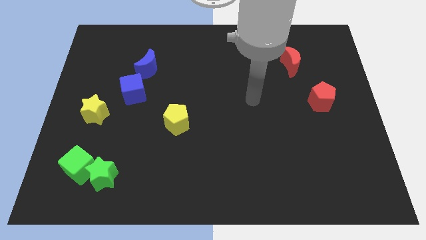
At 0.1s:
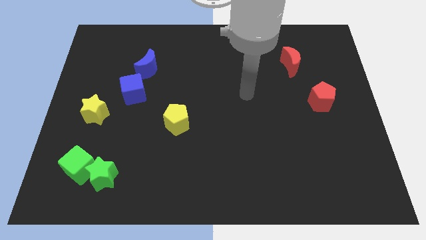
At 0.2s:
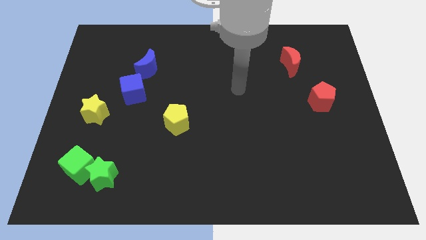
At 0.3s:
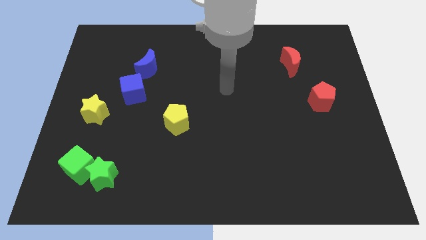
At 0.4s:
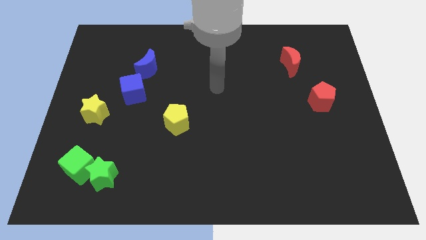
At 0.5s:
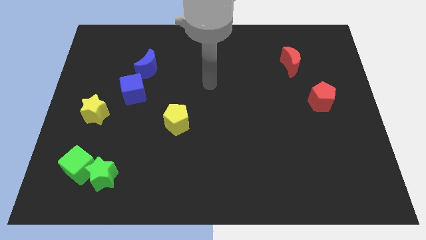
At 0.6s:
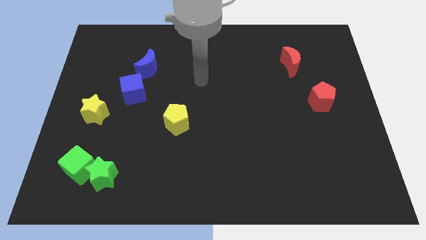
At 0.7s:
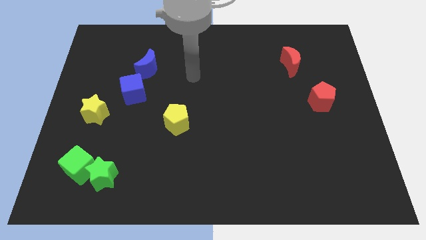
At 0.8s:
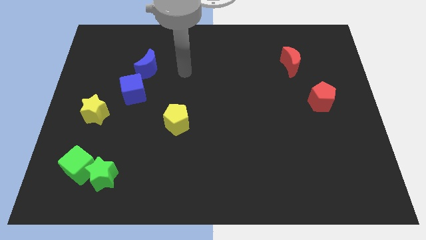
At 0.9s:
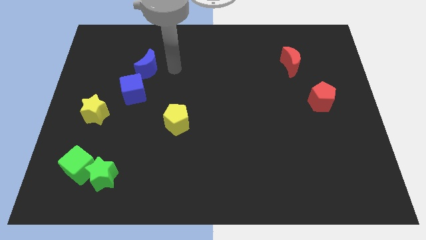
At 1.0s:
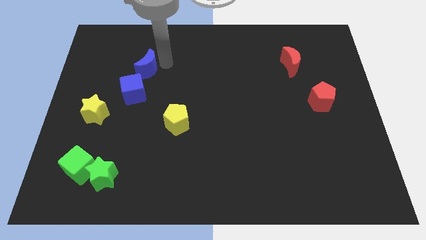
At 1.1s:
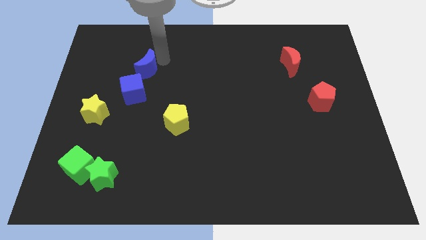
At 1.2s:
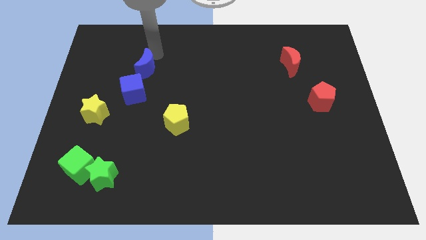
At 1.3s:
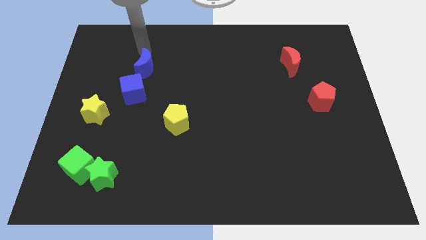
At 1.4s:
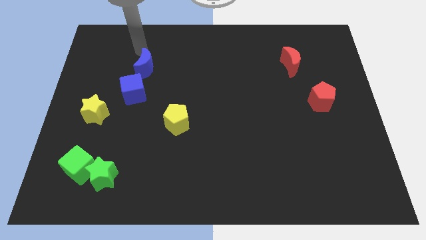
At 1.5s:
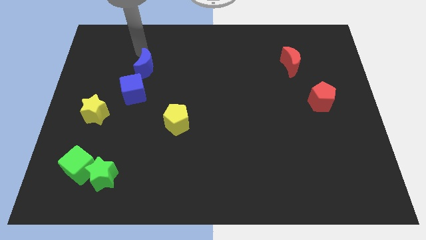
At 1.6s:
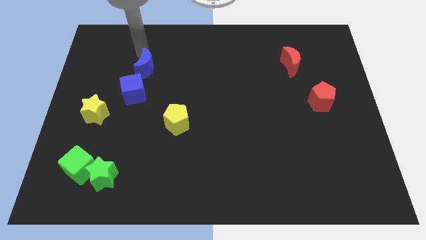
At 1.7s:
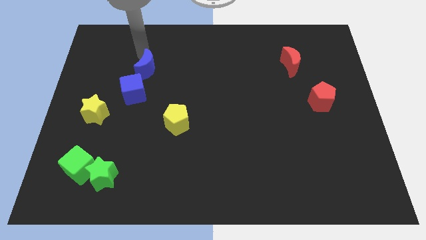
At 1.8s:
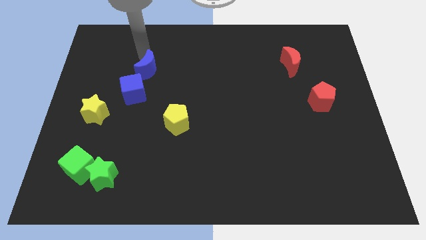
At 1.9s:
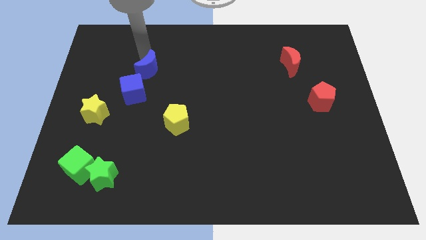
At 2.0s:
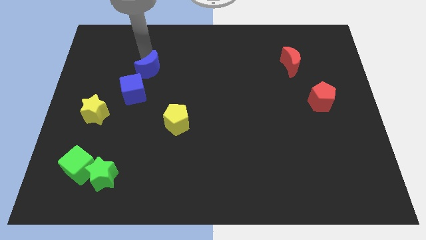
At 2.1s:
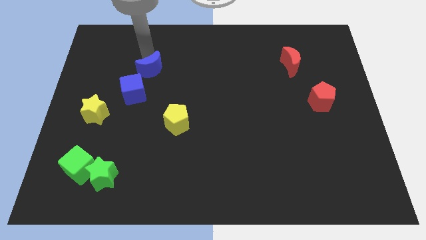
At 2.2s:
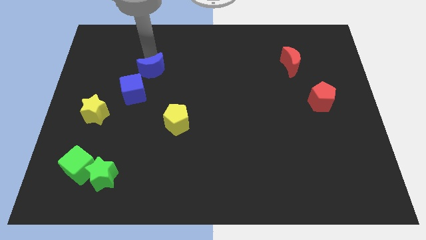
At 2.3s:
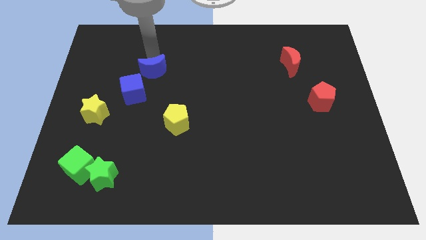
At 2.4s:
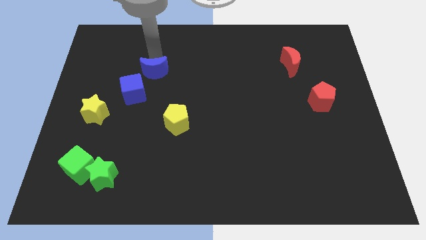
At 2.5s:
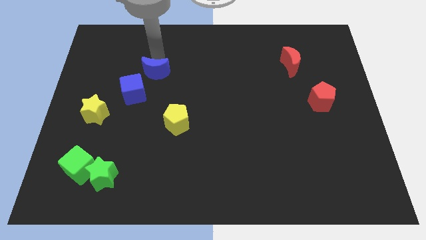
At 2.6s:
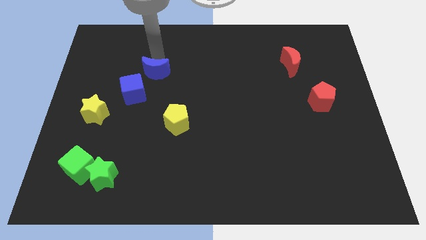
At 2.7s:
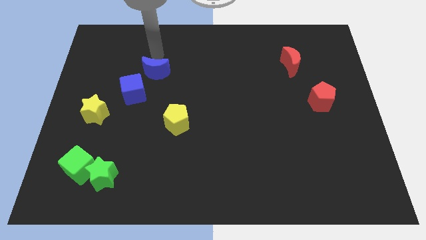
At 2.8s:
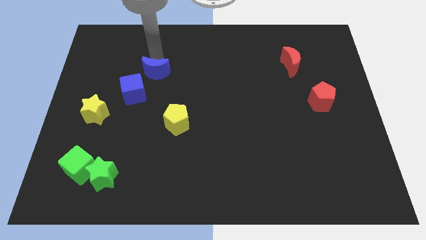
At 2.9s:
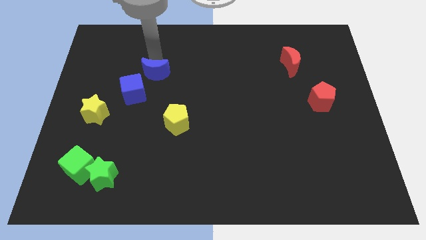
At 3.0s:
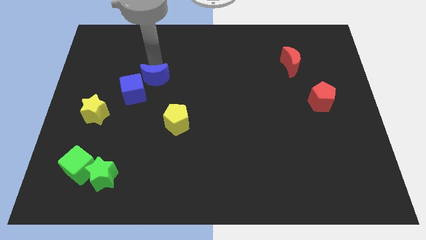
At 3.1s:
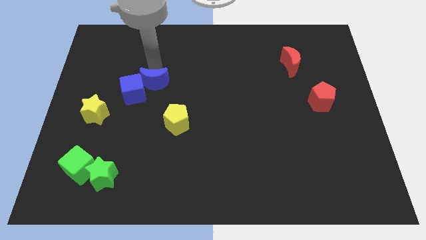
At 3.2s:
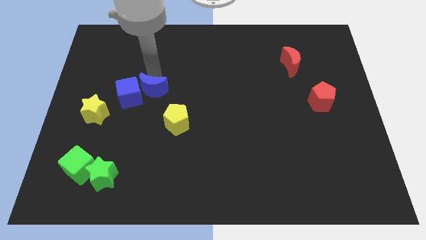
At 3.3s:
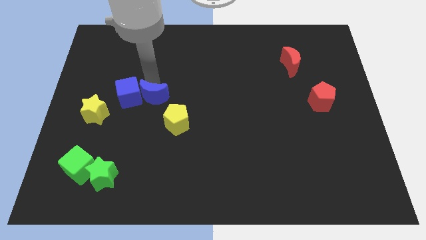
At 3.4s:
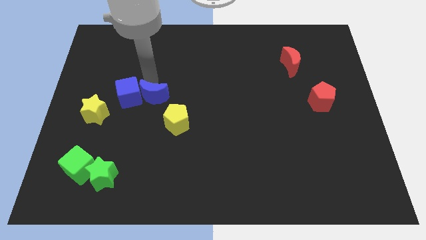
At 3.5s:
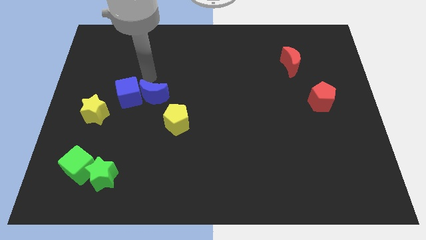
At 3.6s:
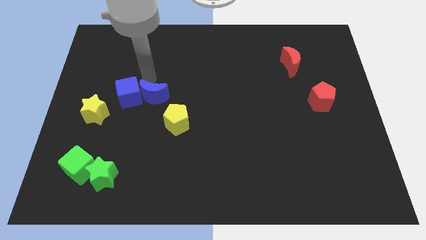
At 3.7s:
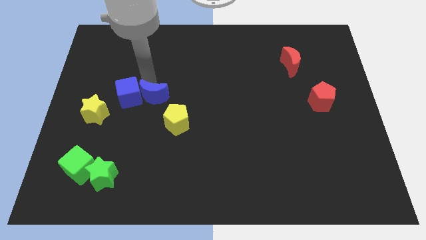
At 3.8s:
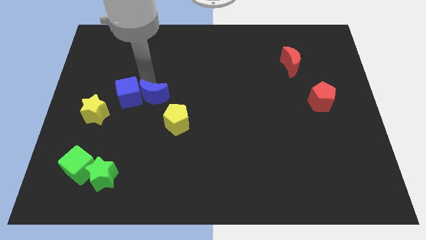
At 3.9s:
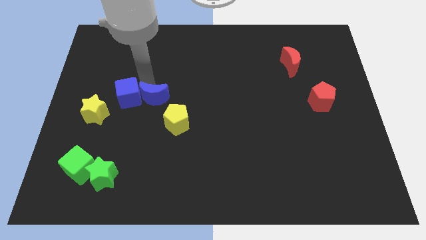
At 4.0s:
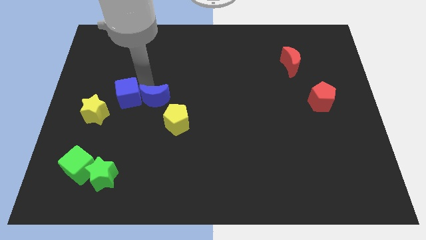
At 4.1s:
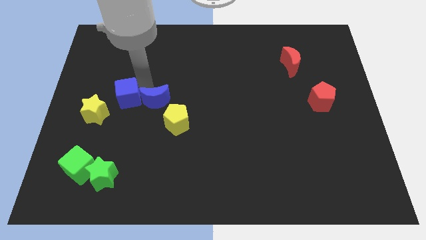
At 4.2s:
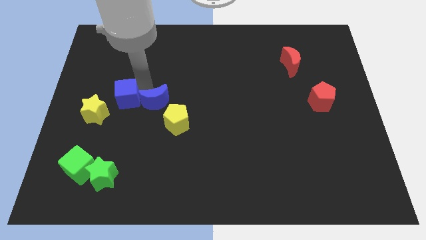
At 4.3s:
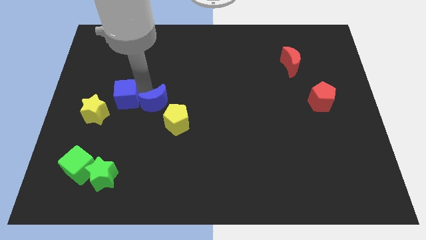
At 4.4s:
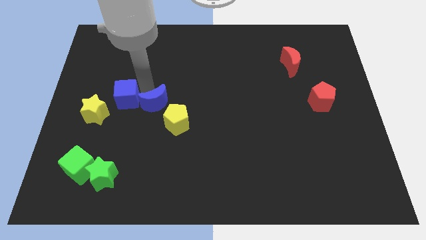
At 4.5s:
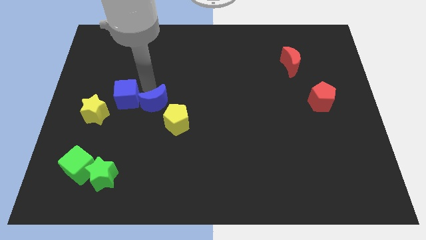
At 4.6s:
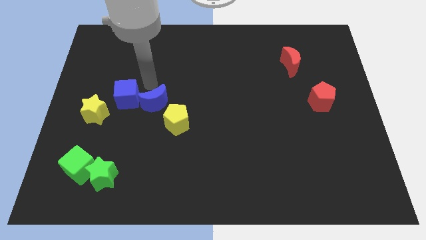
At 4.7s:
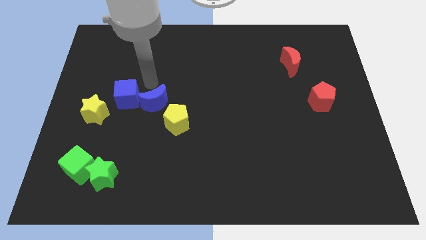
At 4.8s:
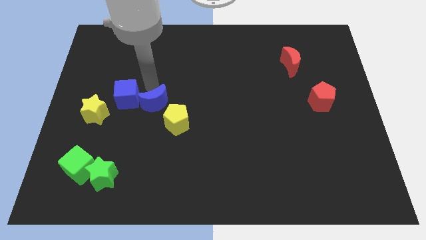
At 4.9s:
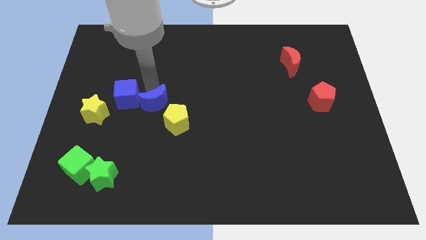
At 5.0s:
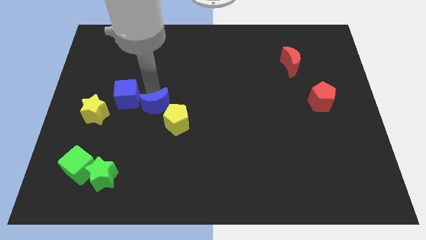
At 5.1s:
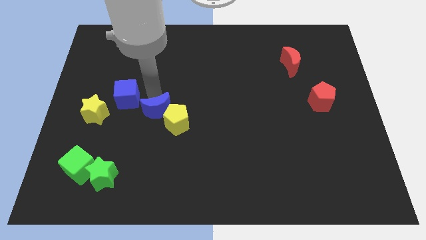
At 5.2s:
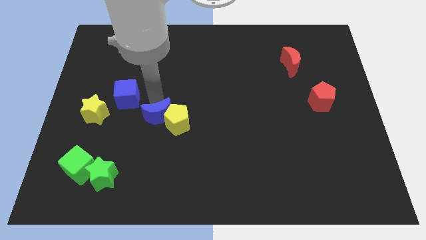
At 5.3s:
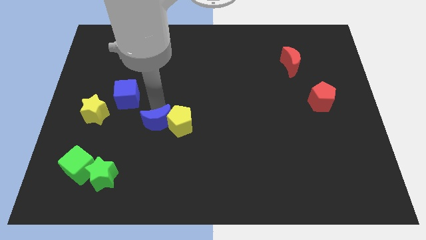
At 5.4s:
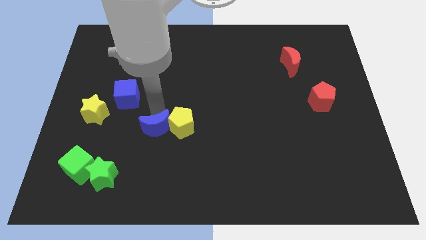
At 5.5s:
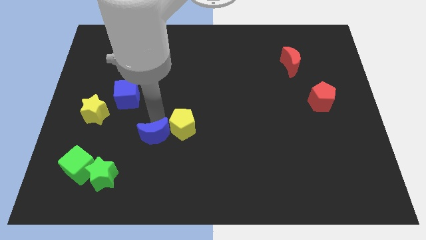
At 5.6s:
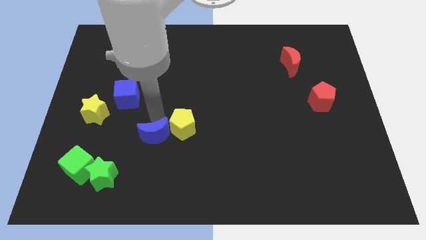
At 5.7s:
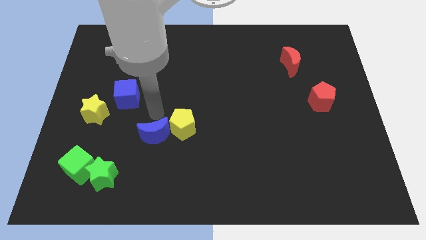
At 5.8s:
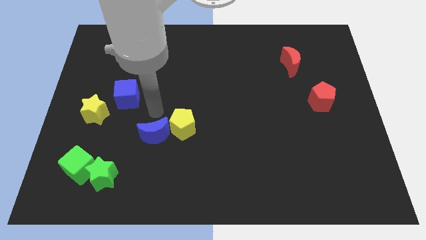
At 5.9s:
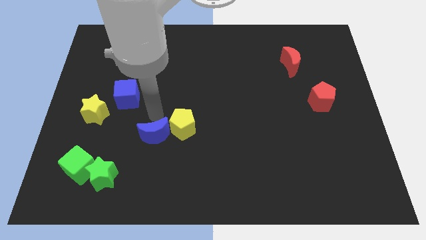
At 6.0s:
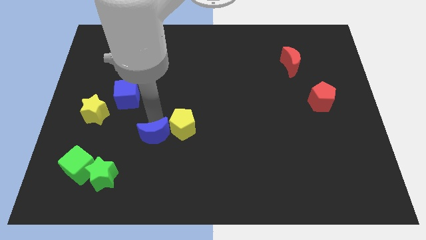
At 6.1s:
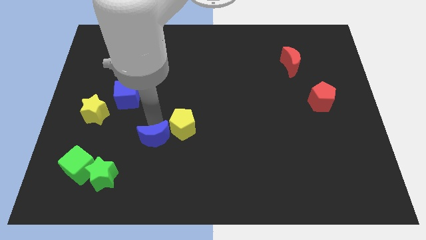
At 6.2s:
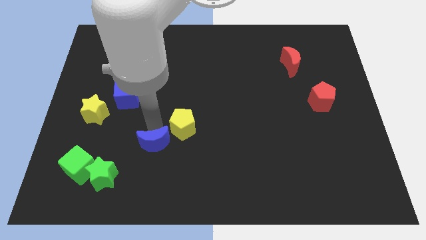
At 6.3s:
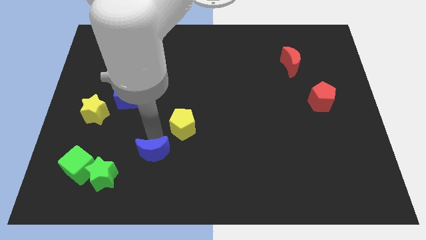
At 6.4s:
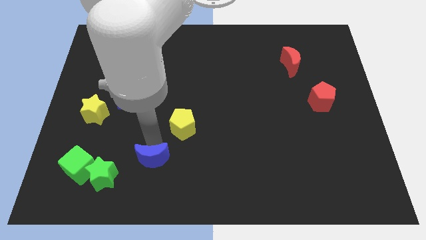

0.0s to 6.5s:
slide the blue moon to the right of the green star

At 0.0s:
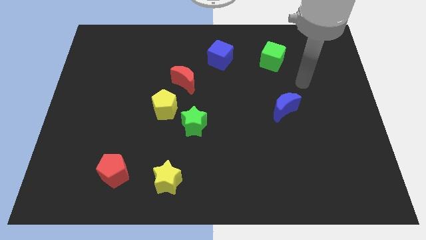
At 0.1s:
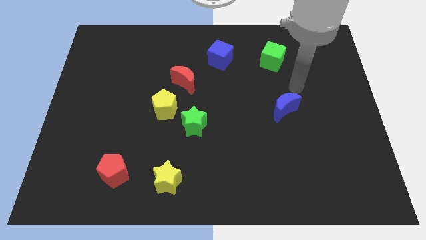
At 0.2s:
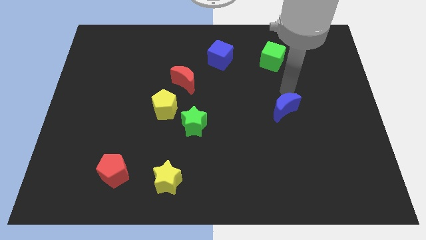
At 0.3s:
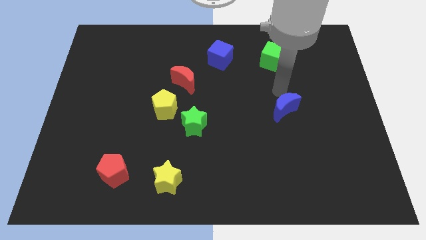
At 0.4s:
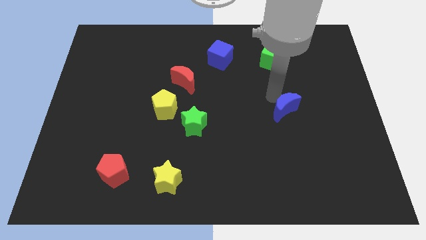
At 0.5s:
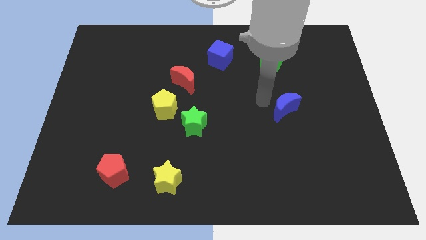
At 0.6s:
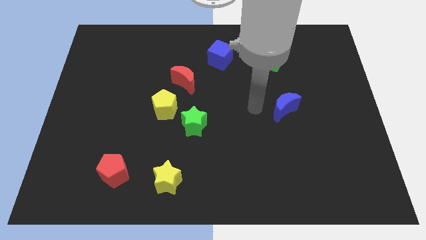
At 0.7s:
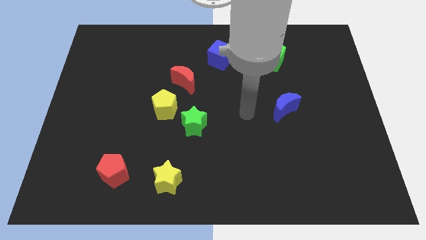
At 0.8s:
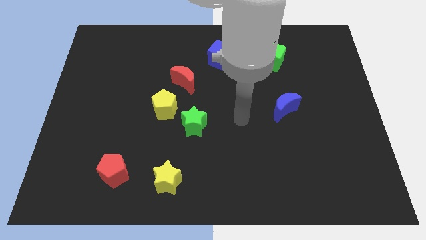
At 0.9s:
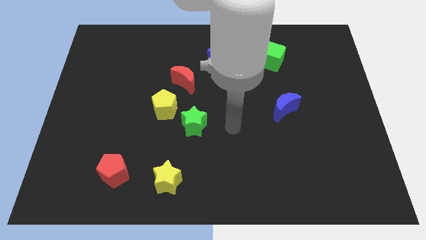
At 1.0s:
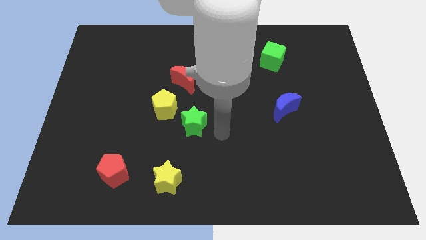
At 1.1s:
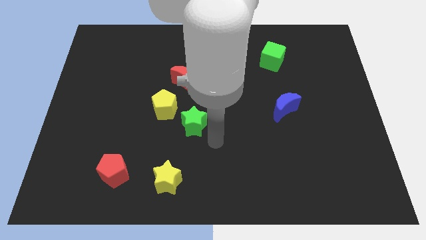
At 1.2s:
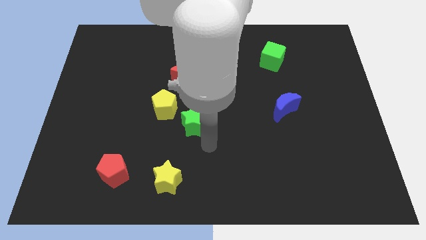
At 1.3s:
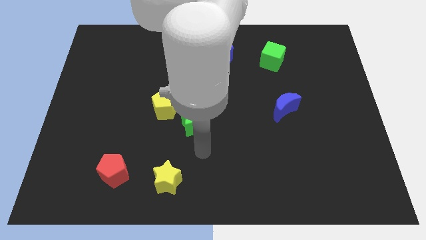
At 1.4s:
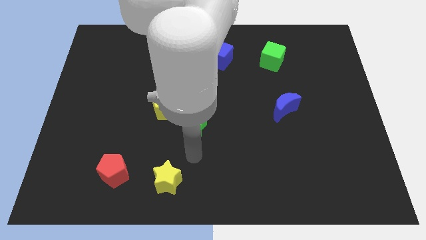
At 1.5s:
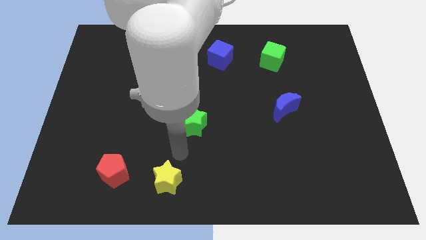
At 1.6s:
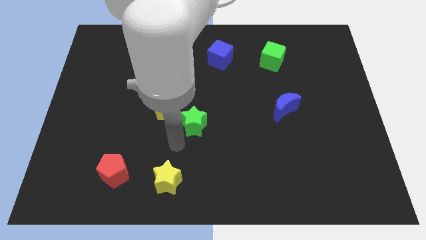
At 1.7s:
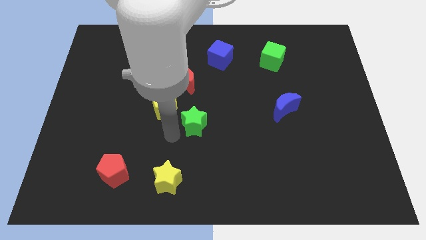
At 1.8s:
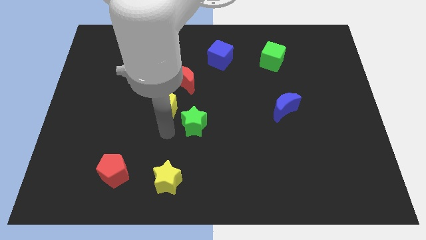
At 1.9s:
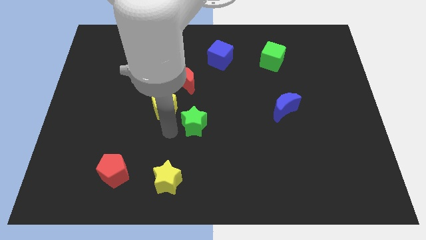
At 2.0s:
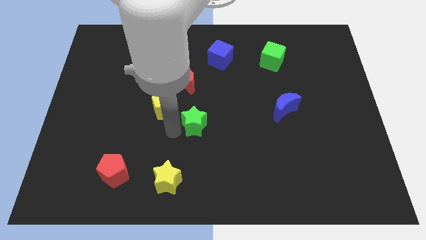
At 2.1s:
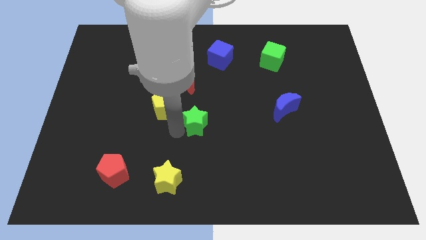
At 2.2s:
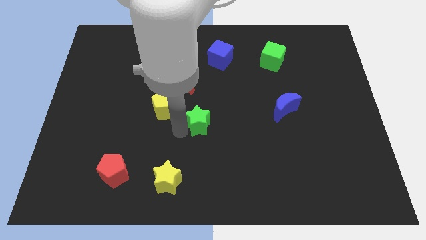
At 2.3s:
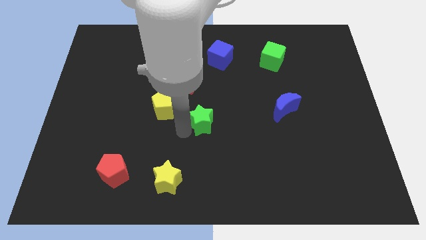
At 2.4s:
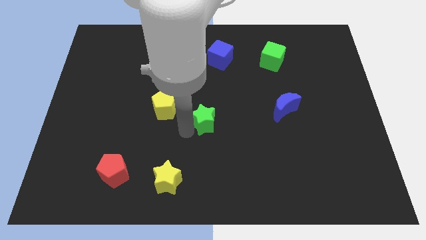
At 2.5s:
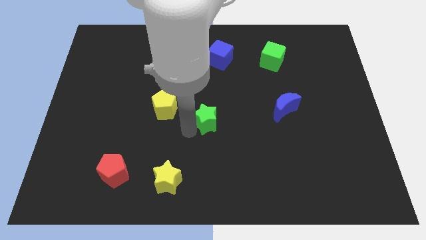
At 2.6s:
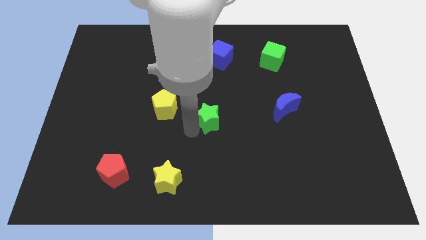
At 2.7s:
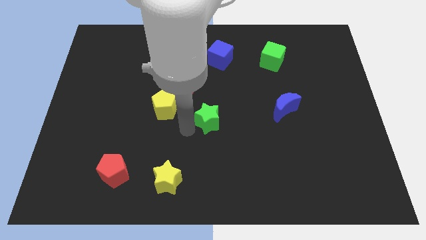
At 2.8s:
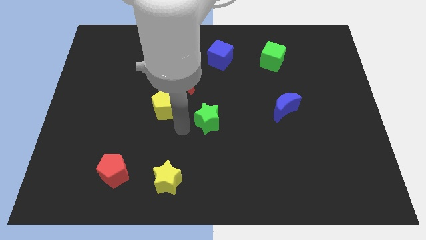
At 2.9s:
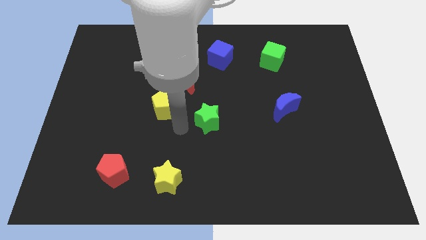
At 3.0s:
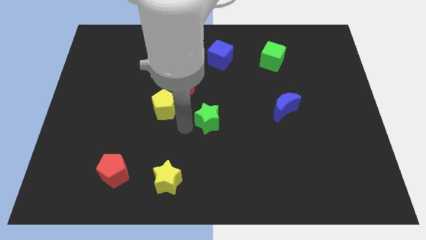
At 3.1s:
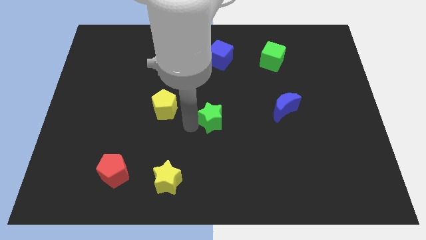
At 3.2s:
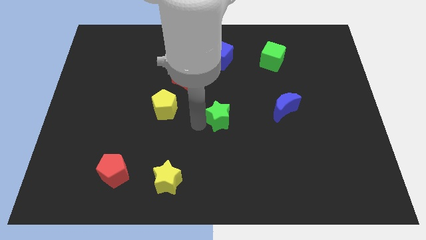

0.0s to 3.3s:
put the green star just left of the blue moon
